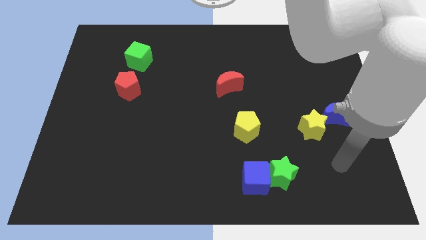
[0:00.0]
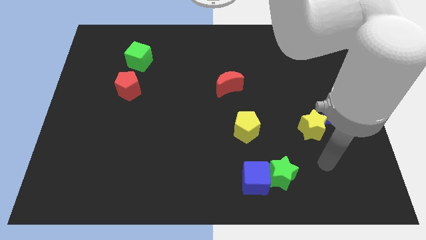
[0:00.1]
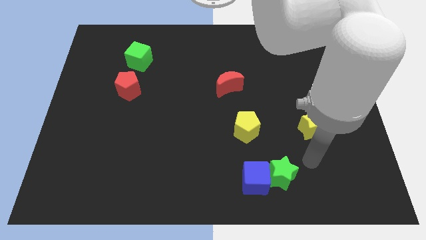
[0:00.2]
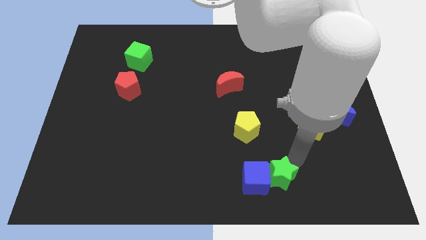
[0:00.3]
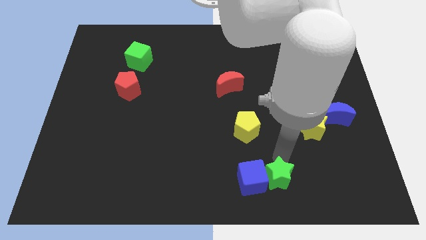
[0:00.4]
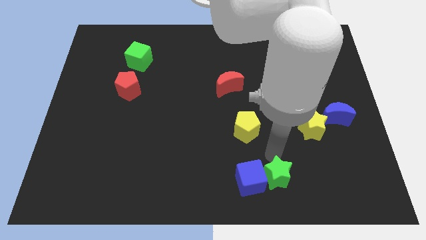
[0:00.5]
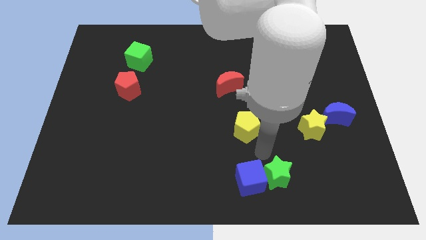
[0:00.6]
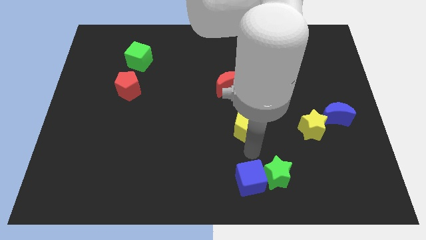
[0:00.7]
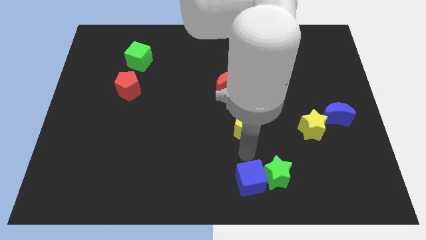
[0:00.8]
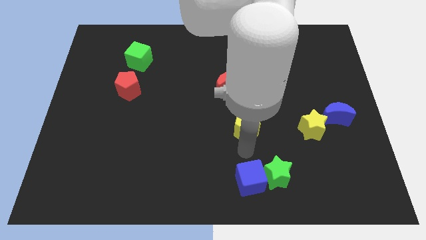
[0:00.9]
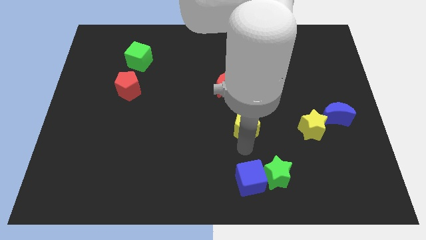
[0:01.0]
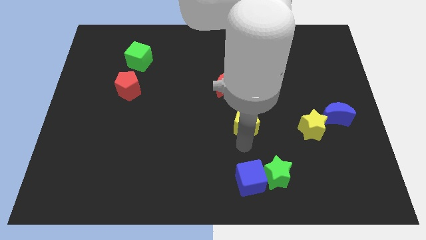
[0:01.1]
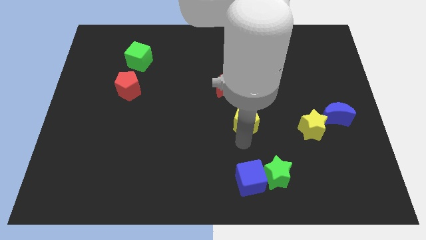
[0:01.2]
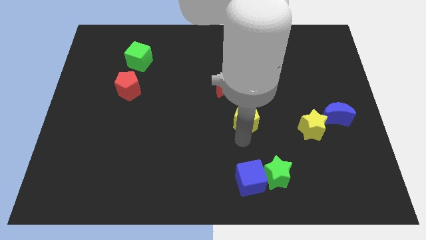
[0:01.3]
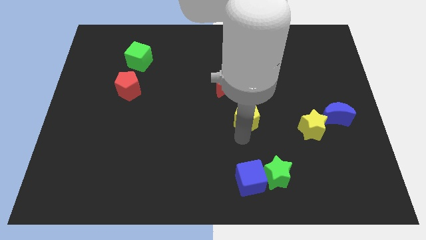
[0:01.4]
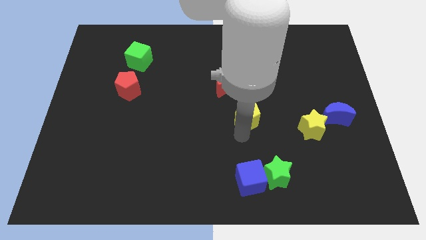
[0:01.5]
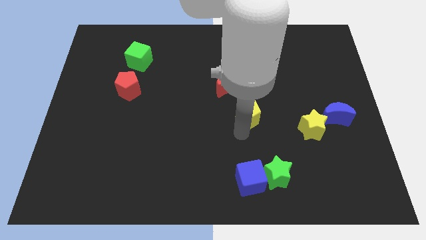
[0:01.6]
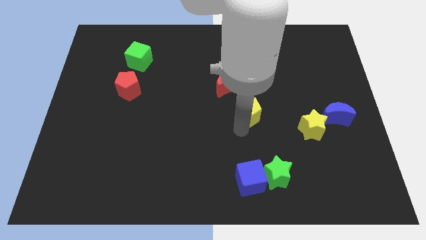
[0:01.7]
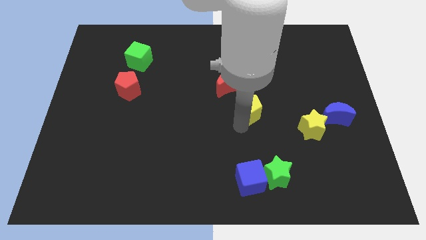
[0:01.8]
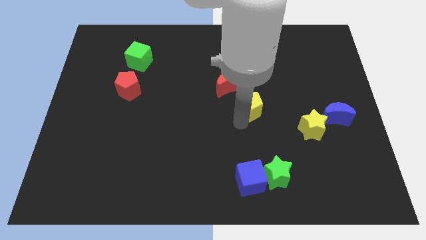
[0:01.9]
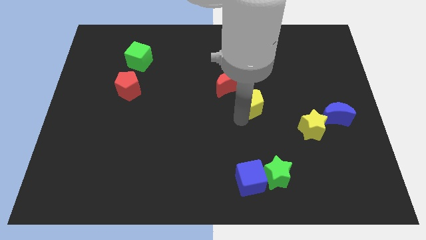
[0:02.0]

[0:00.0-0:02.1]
move the yellow pentagon up slightly

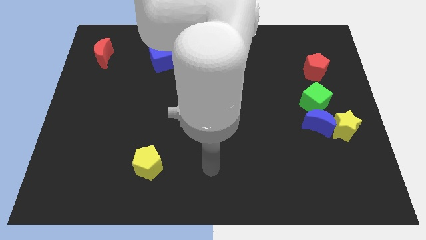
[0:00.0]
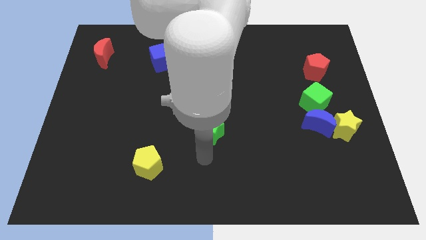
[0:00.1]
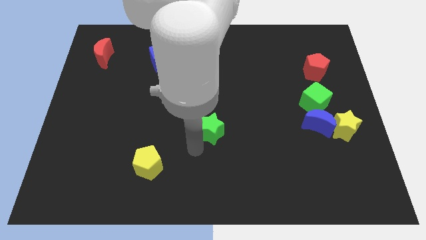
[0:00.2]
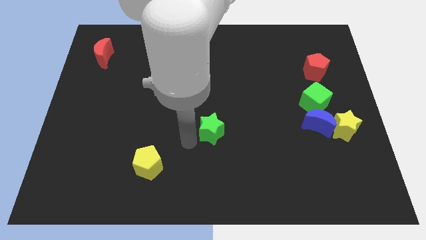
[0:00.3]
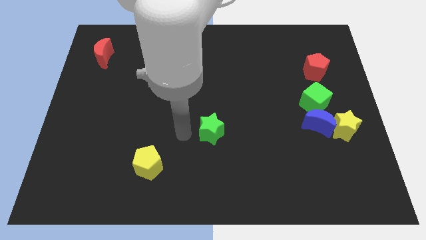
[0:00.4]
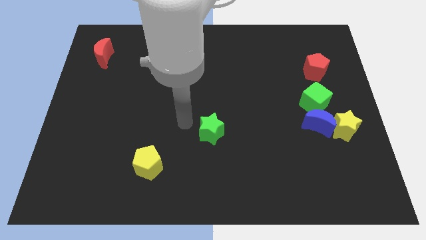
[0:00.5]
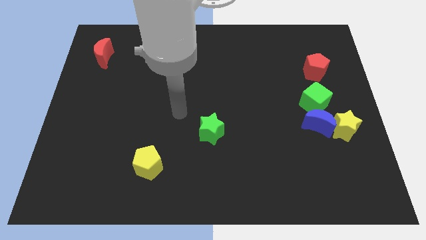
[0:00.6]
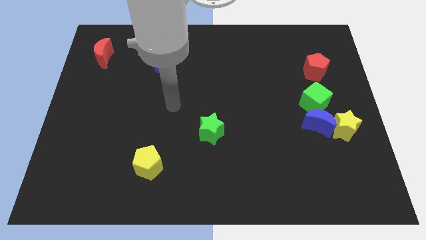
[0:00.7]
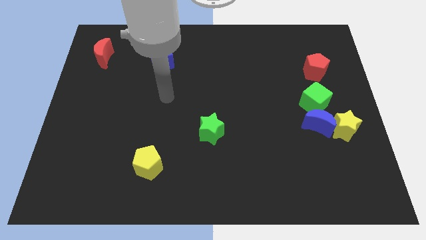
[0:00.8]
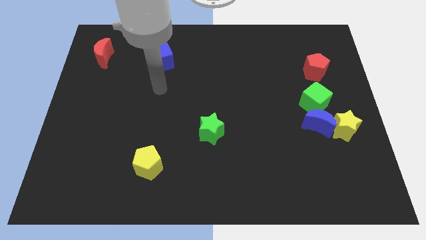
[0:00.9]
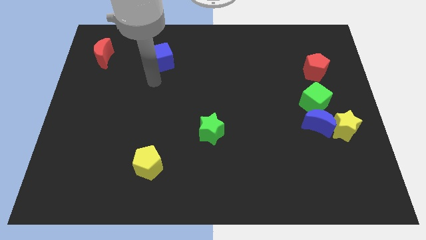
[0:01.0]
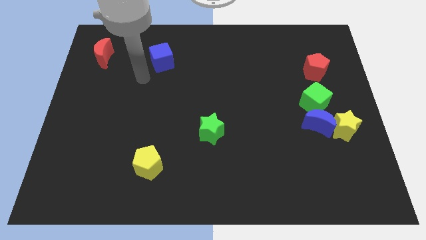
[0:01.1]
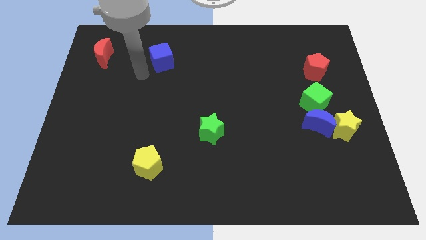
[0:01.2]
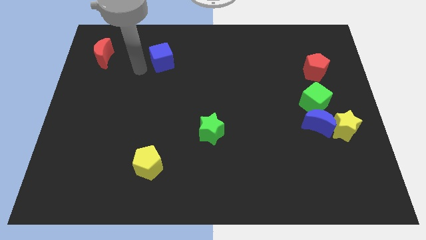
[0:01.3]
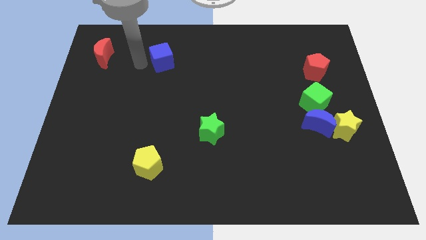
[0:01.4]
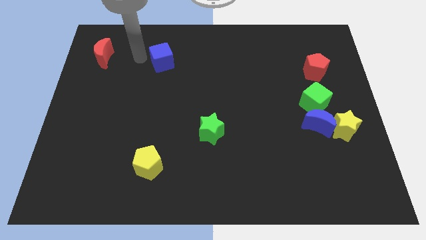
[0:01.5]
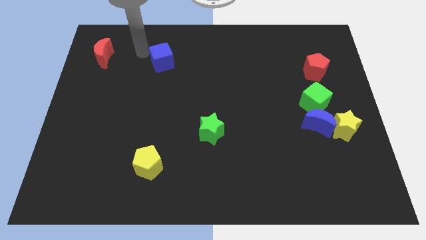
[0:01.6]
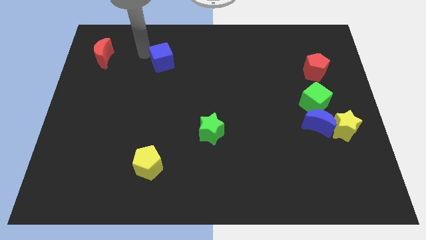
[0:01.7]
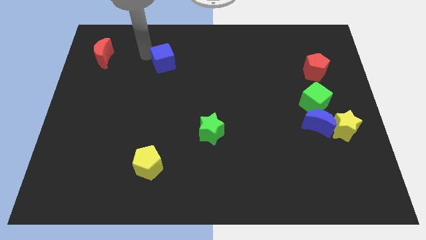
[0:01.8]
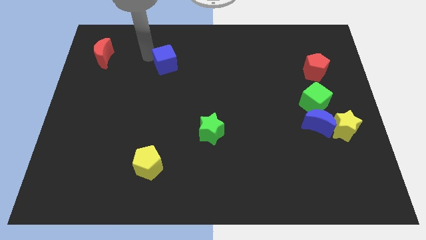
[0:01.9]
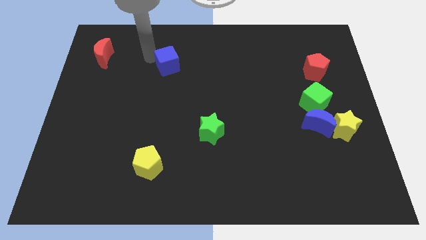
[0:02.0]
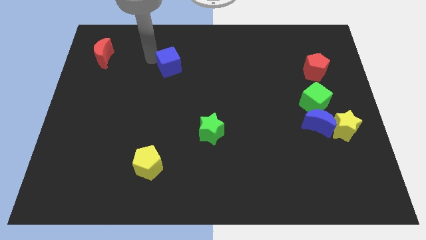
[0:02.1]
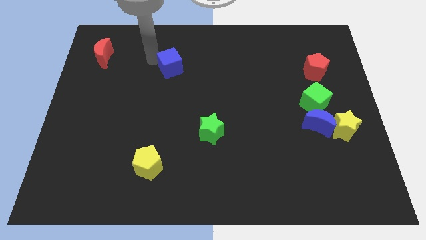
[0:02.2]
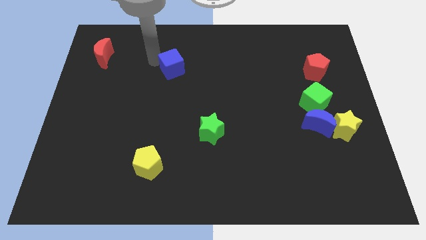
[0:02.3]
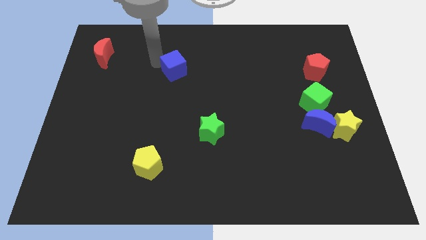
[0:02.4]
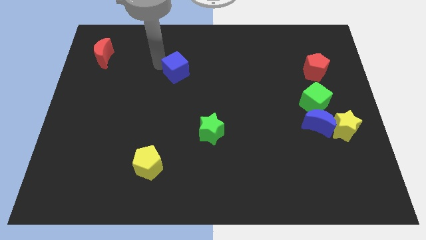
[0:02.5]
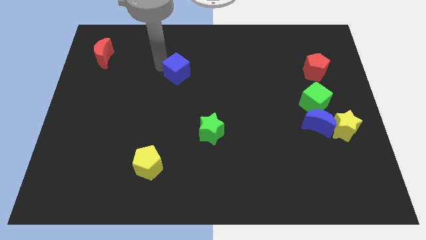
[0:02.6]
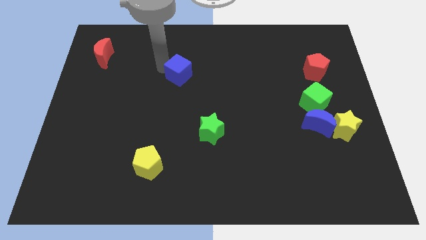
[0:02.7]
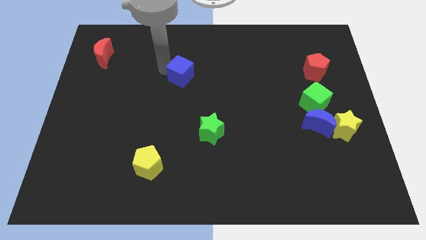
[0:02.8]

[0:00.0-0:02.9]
slide the blue cube a bit diagonally downwards and right

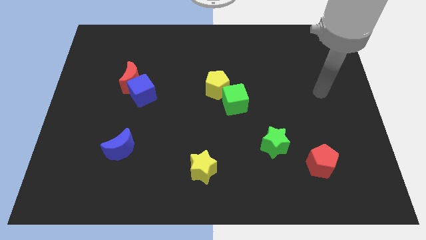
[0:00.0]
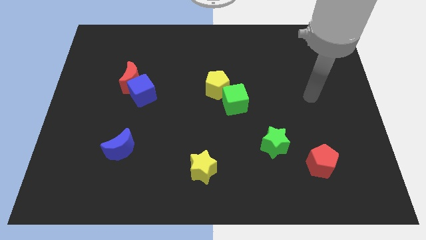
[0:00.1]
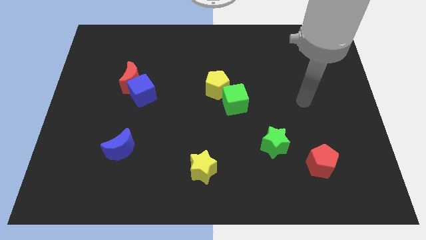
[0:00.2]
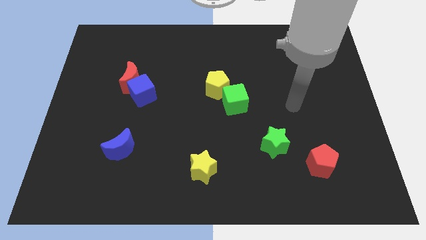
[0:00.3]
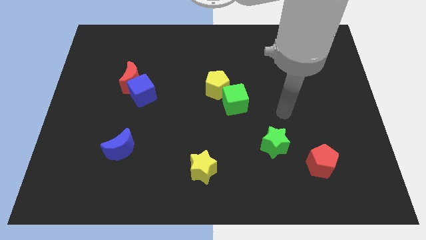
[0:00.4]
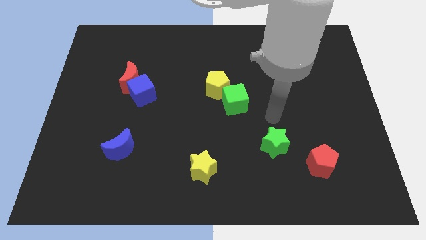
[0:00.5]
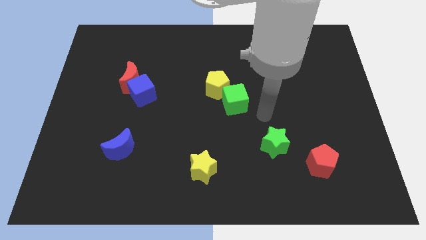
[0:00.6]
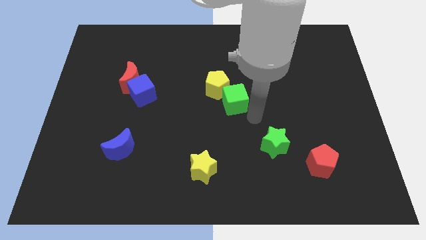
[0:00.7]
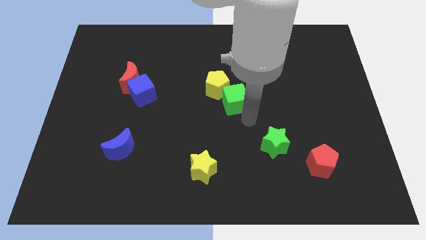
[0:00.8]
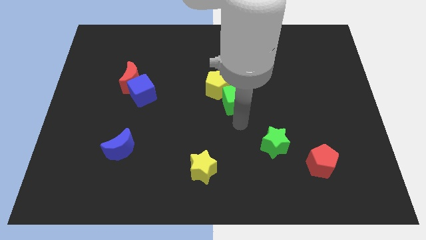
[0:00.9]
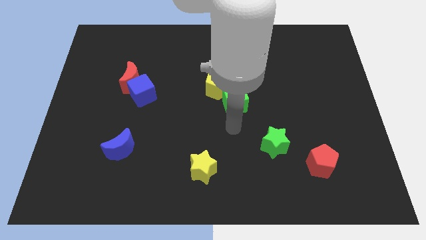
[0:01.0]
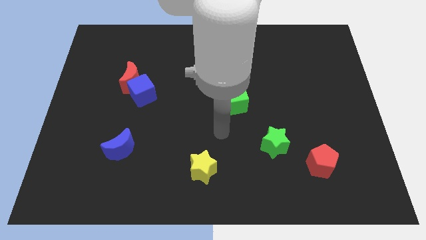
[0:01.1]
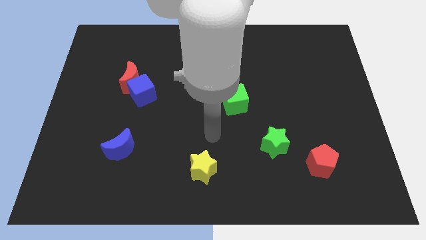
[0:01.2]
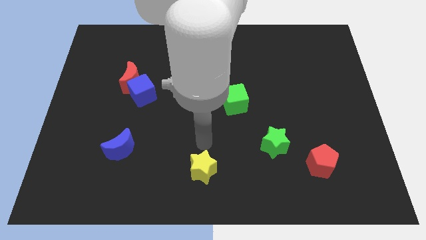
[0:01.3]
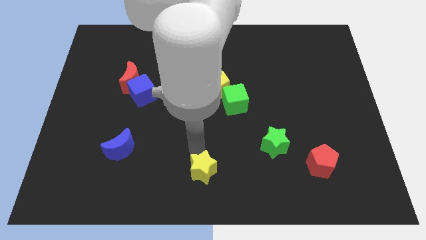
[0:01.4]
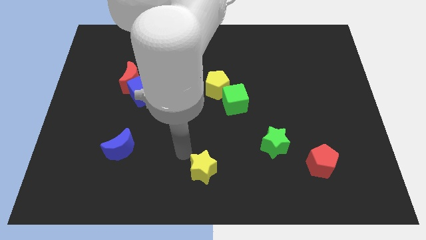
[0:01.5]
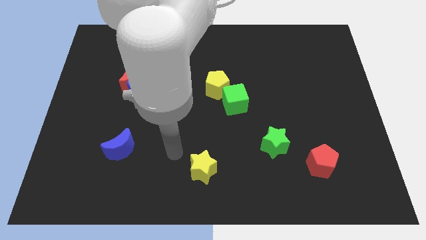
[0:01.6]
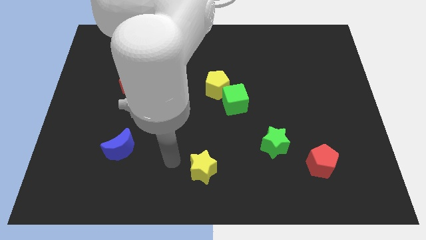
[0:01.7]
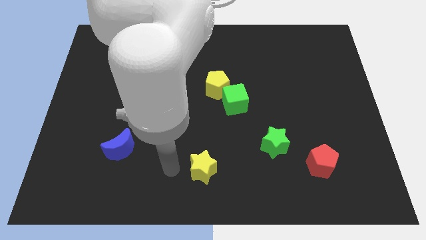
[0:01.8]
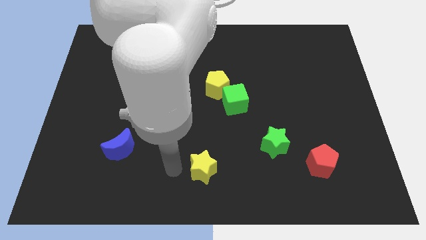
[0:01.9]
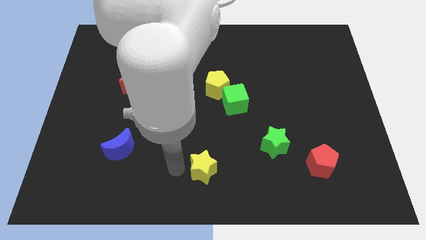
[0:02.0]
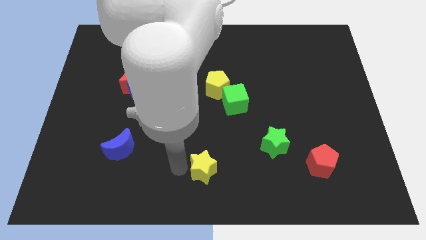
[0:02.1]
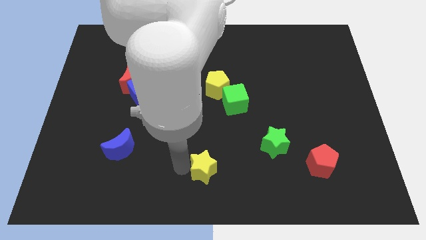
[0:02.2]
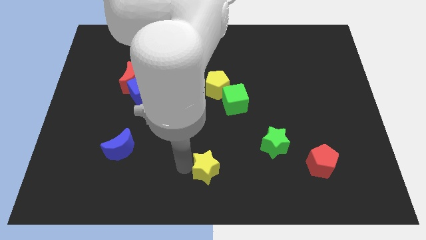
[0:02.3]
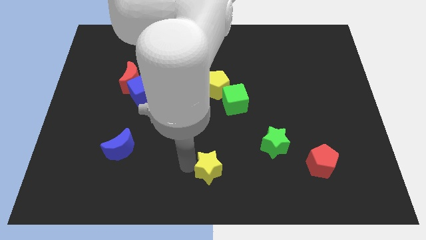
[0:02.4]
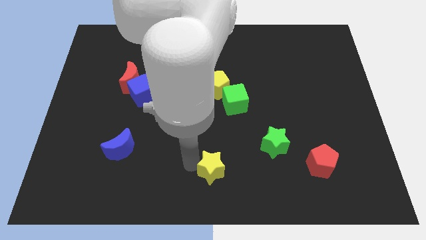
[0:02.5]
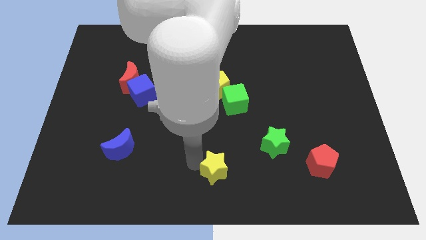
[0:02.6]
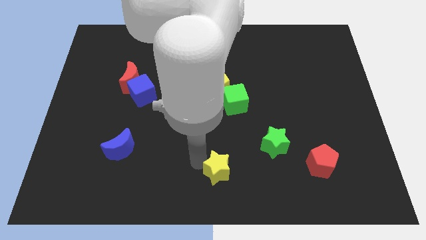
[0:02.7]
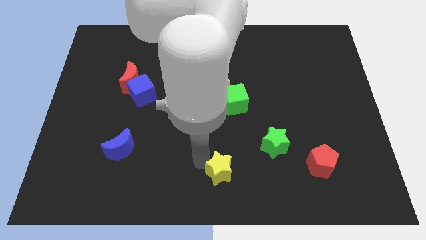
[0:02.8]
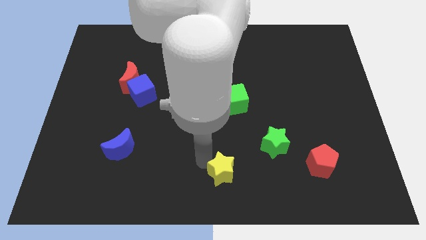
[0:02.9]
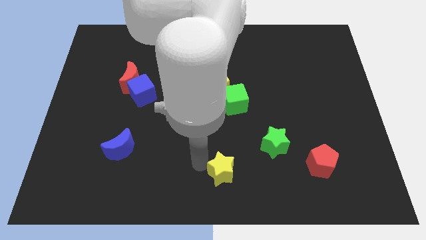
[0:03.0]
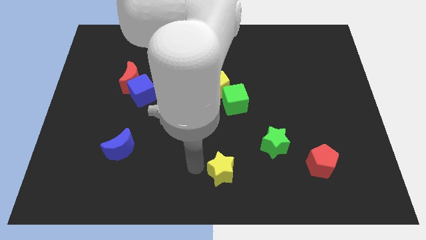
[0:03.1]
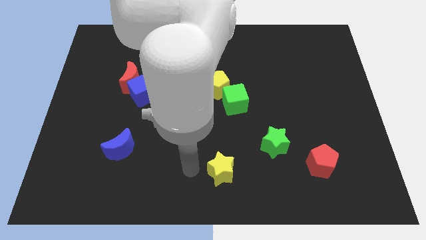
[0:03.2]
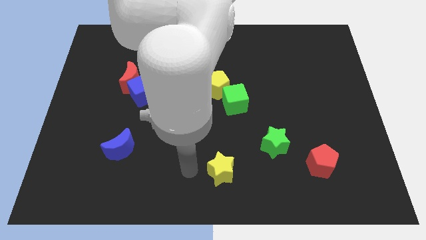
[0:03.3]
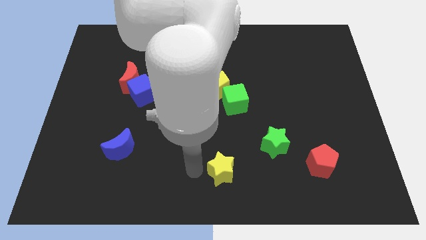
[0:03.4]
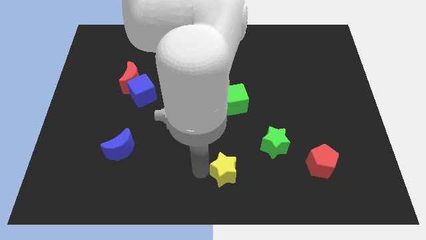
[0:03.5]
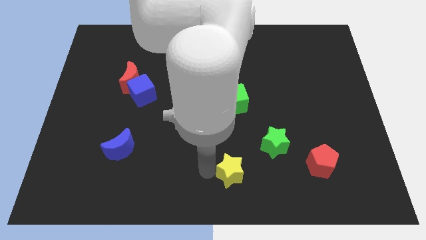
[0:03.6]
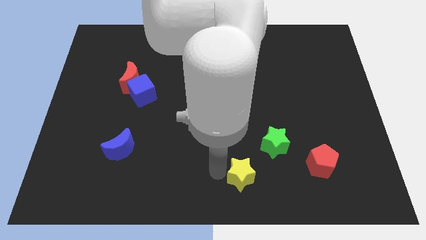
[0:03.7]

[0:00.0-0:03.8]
move the yellow star right slightly

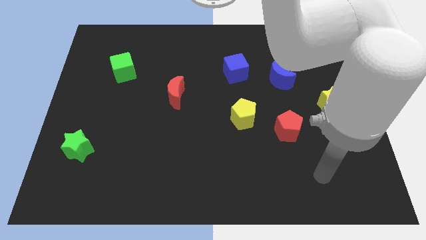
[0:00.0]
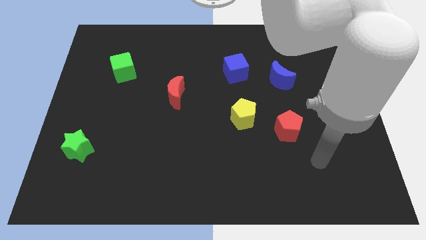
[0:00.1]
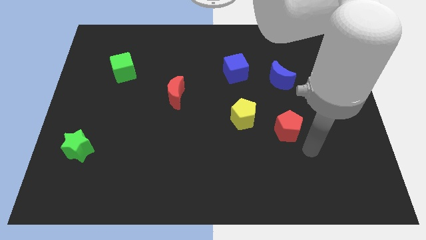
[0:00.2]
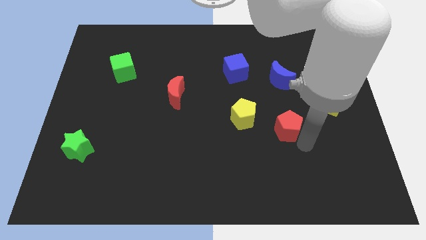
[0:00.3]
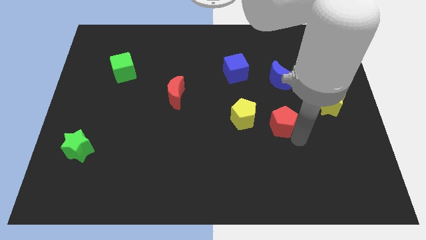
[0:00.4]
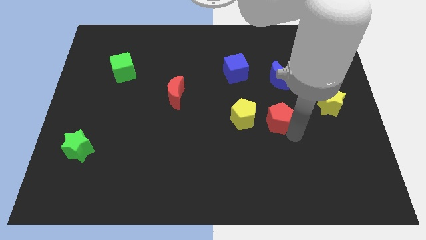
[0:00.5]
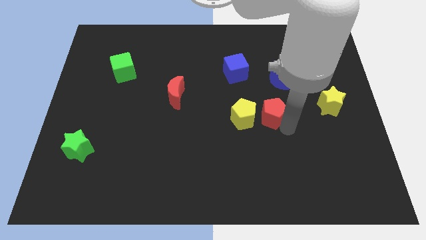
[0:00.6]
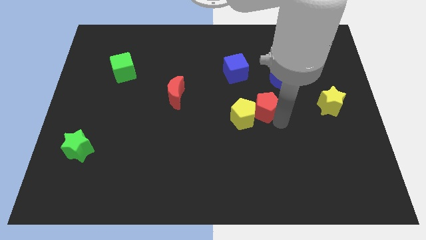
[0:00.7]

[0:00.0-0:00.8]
move the red pentagon somewhat up and to the left diagonally
